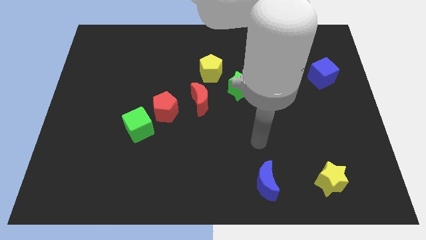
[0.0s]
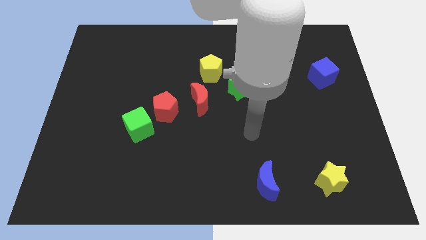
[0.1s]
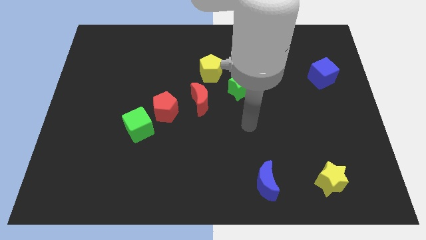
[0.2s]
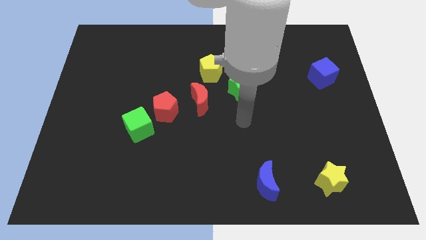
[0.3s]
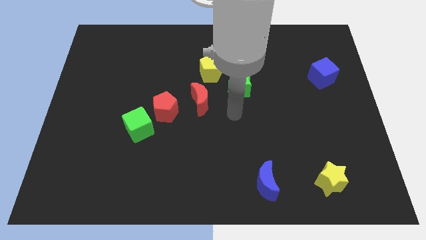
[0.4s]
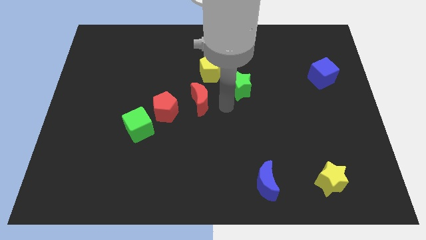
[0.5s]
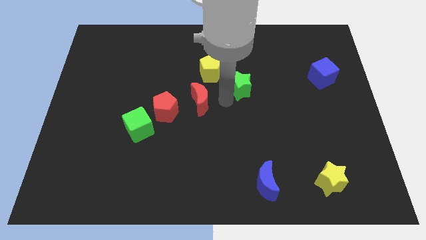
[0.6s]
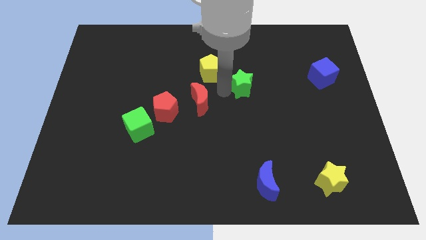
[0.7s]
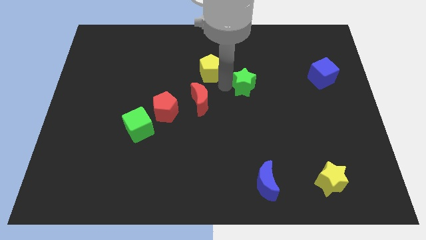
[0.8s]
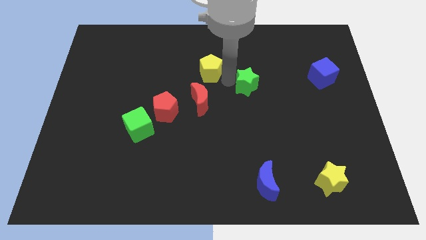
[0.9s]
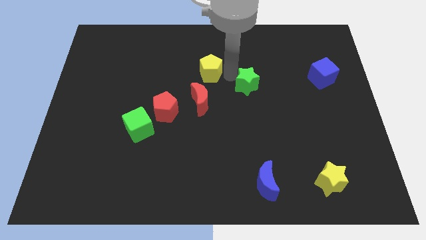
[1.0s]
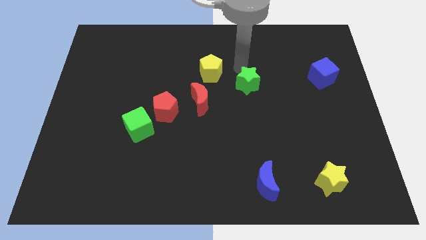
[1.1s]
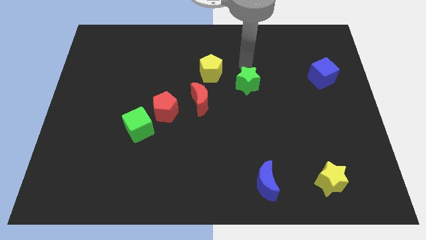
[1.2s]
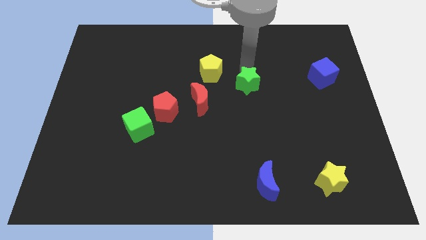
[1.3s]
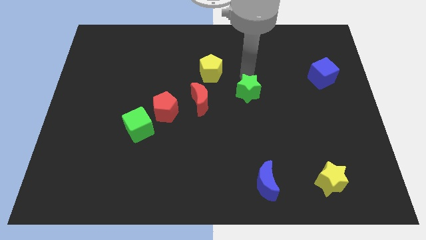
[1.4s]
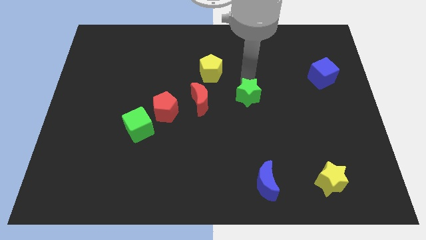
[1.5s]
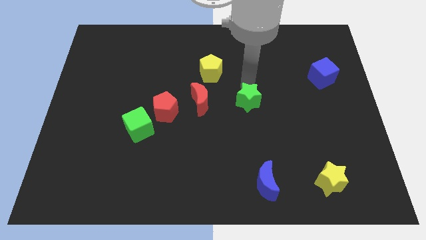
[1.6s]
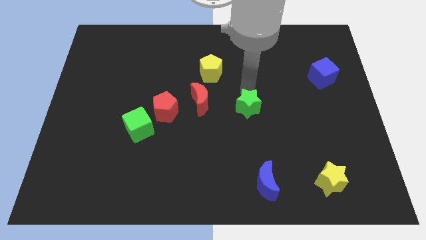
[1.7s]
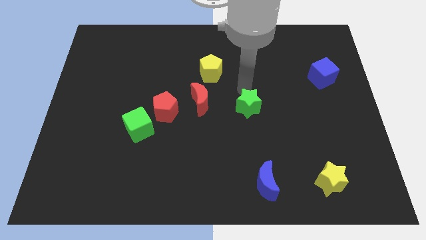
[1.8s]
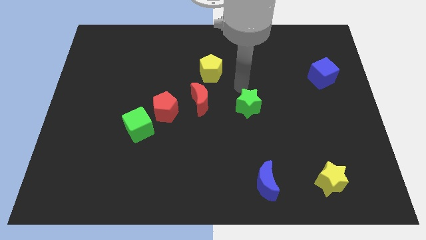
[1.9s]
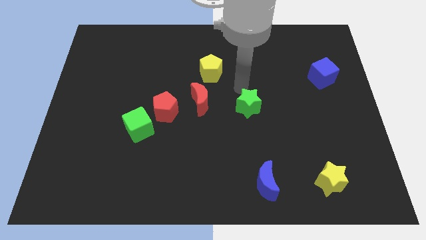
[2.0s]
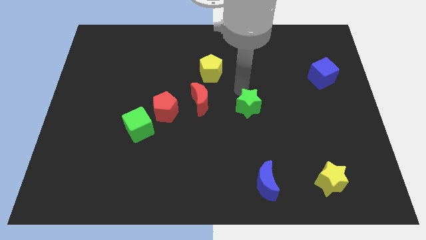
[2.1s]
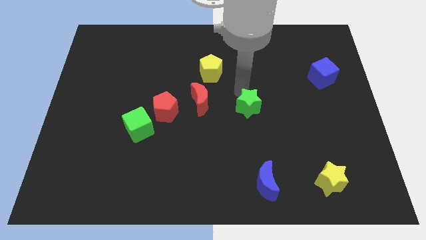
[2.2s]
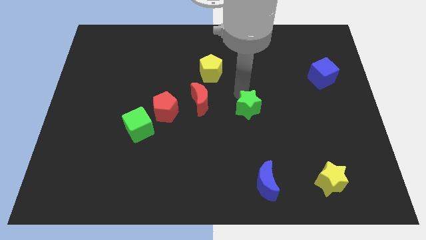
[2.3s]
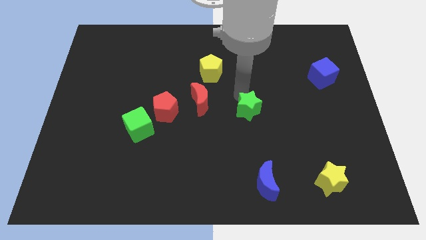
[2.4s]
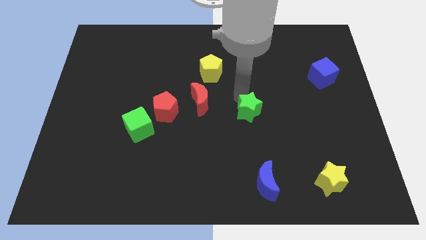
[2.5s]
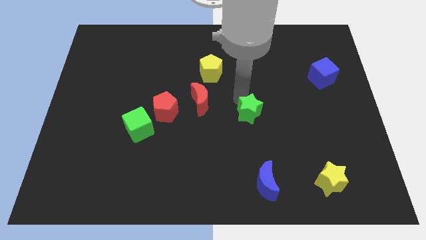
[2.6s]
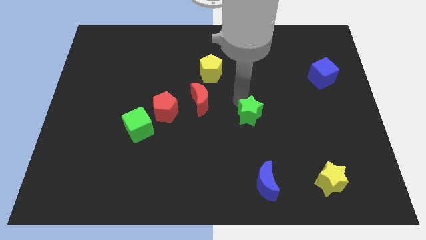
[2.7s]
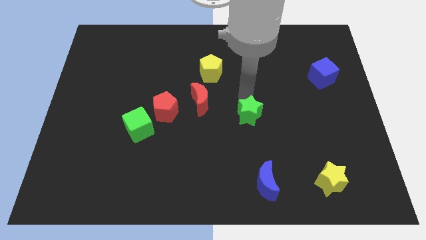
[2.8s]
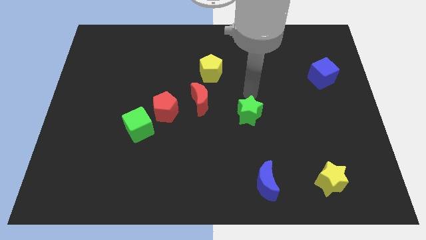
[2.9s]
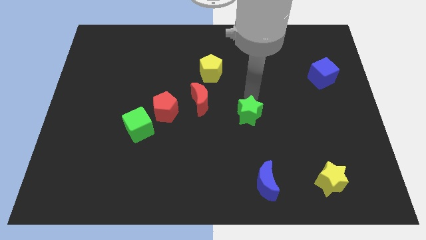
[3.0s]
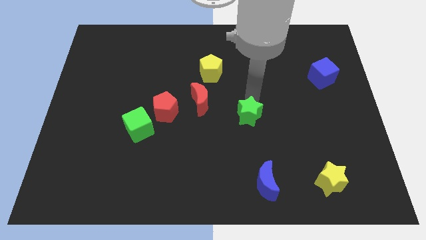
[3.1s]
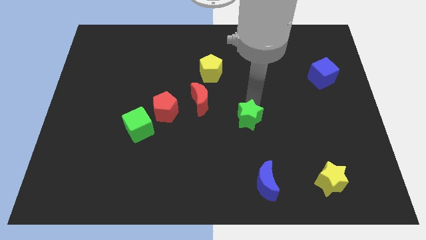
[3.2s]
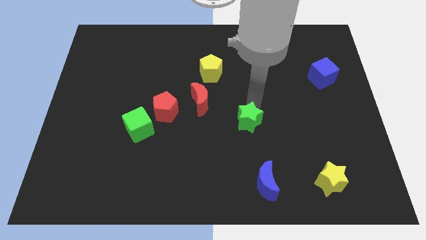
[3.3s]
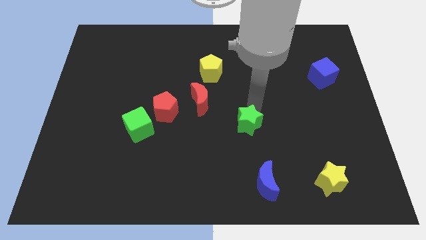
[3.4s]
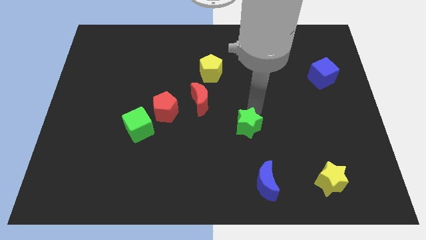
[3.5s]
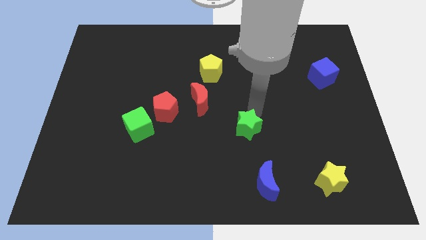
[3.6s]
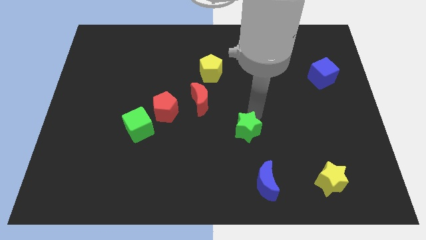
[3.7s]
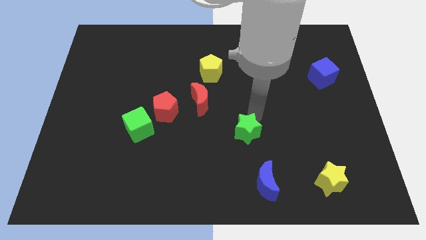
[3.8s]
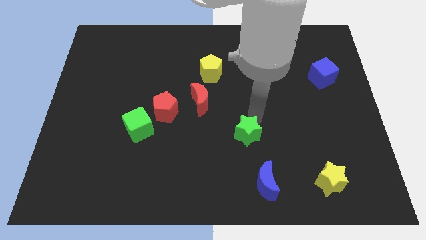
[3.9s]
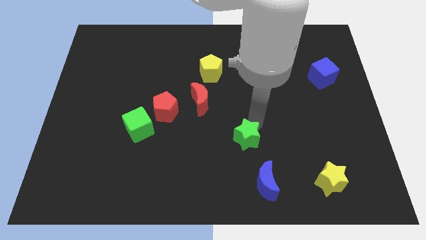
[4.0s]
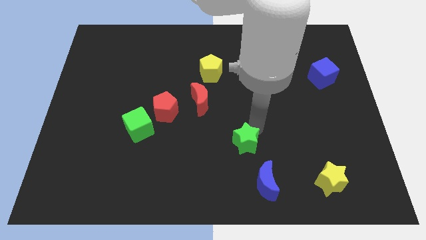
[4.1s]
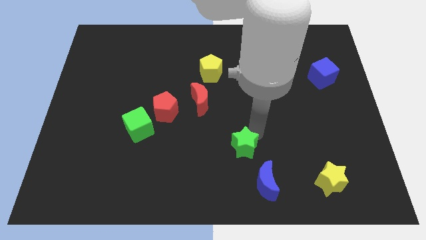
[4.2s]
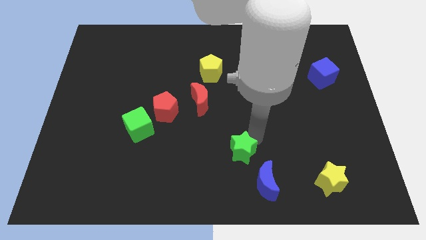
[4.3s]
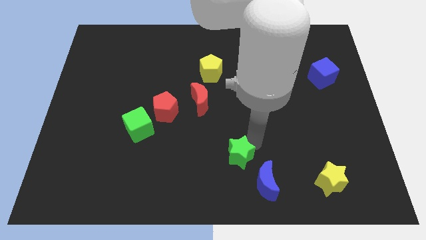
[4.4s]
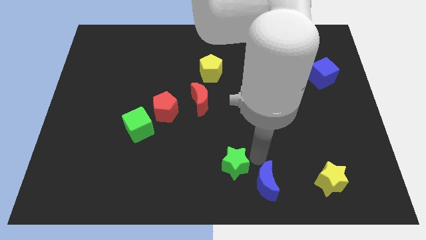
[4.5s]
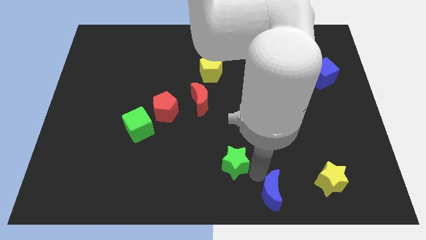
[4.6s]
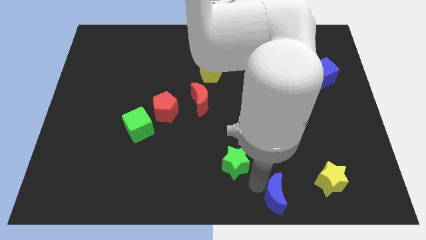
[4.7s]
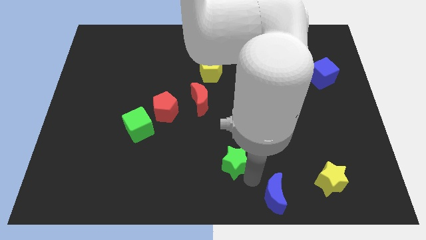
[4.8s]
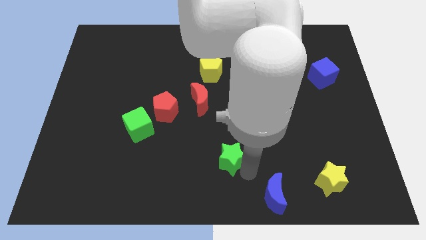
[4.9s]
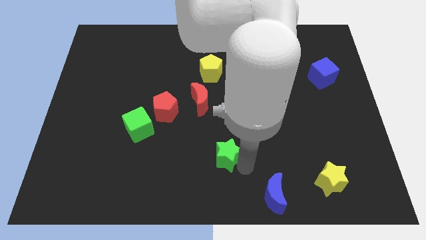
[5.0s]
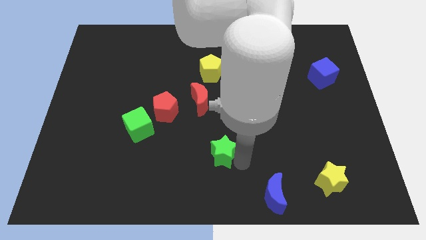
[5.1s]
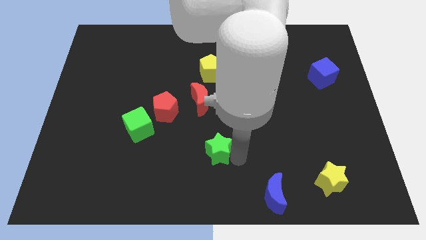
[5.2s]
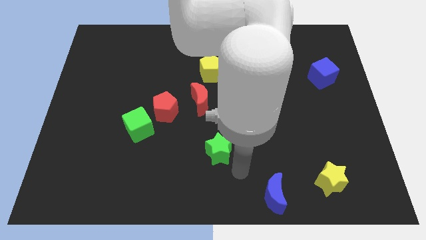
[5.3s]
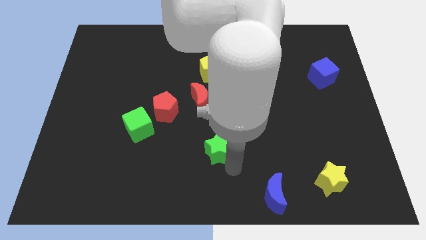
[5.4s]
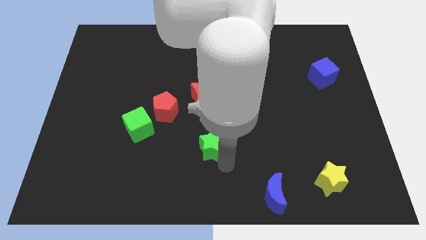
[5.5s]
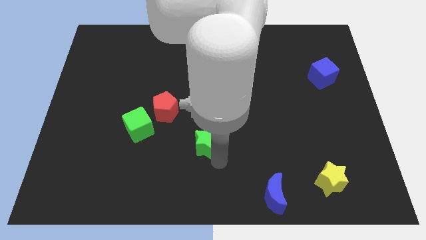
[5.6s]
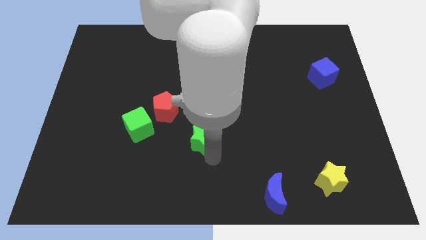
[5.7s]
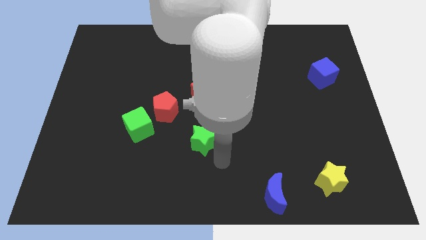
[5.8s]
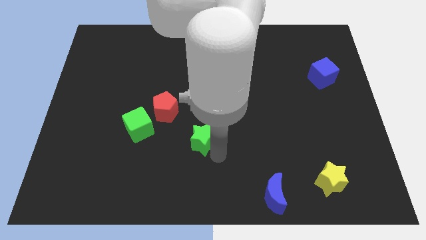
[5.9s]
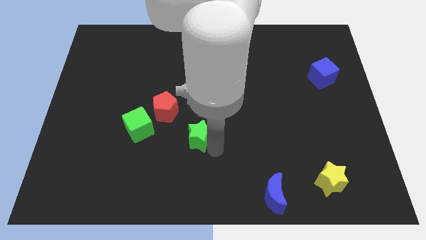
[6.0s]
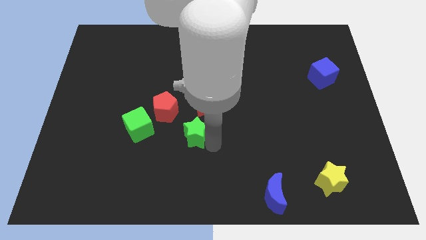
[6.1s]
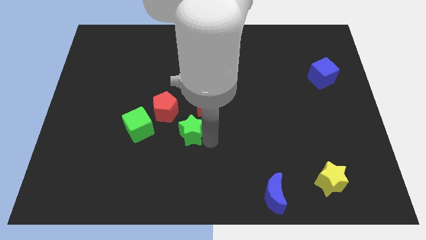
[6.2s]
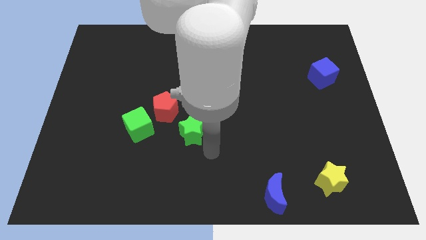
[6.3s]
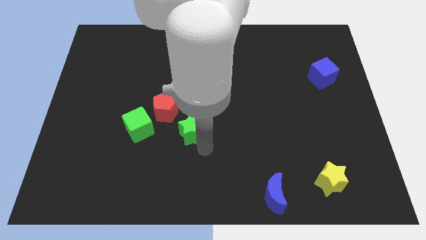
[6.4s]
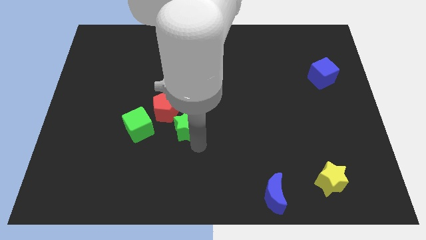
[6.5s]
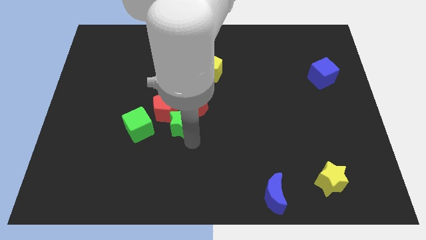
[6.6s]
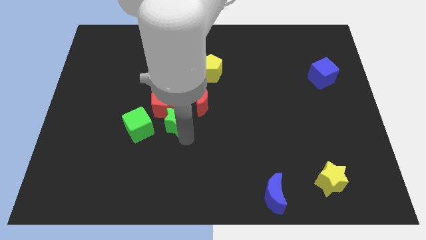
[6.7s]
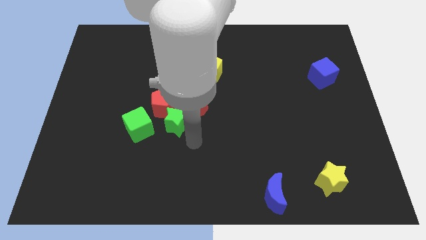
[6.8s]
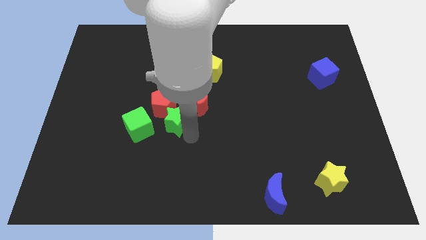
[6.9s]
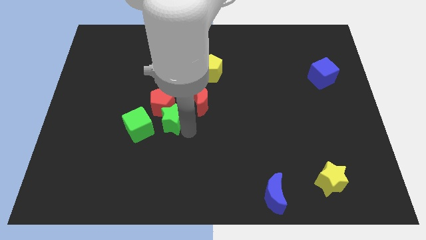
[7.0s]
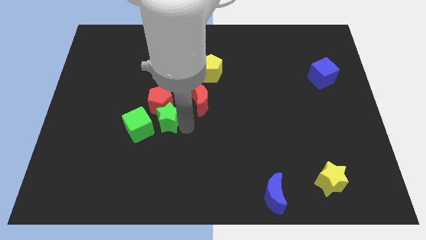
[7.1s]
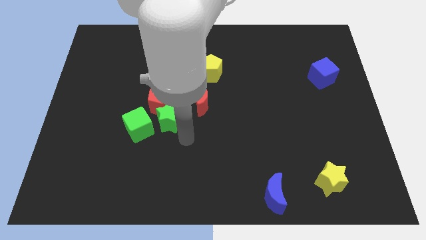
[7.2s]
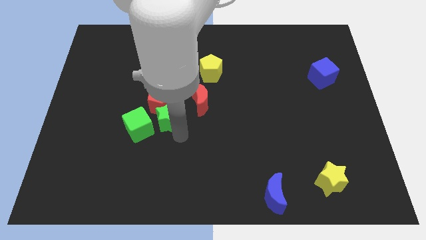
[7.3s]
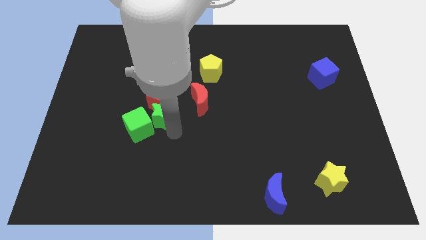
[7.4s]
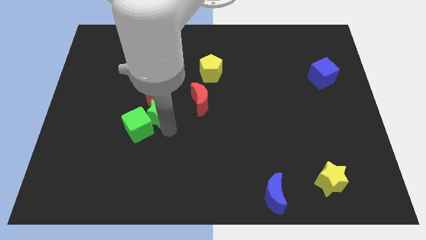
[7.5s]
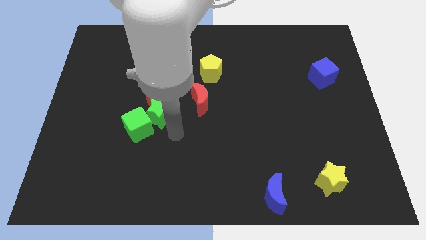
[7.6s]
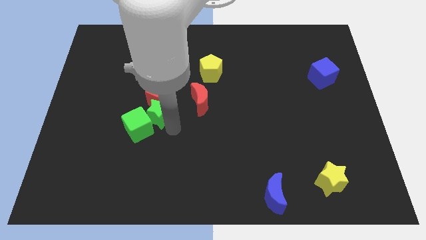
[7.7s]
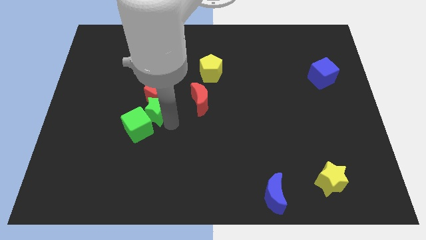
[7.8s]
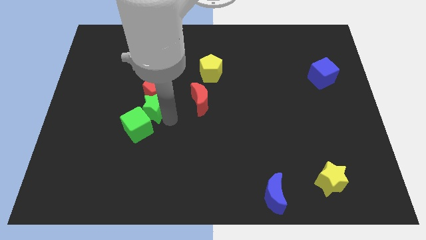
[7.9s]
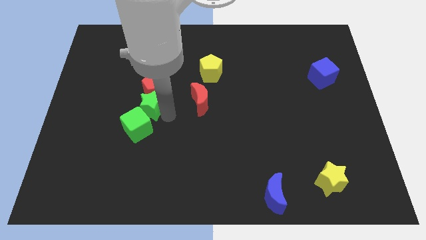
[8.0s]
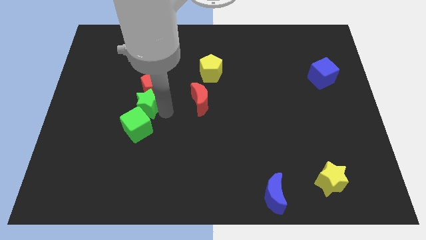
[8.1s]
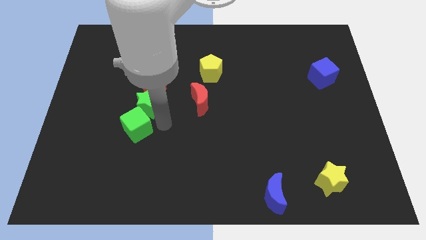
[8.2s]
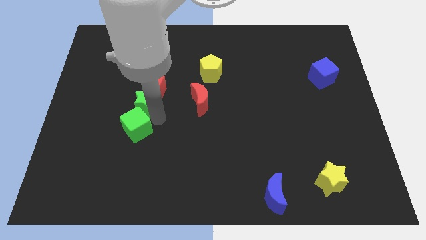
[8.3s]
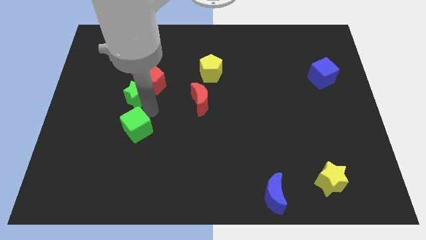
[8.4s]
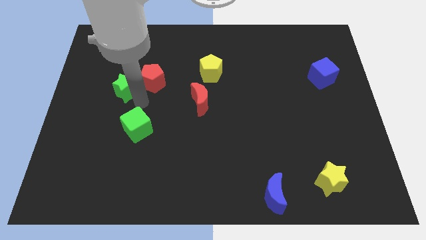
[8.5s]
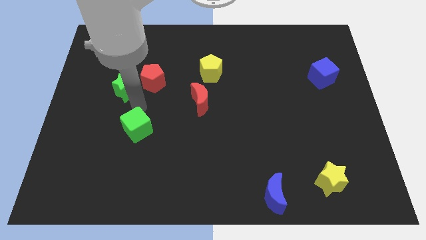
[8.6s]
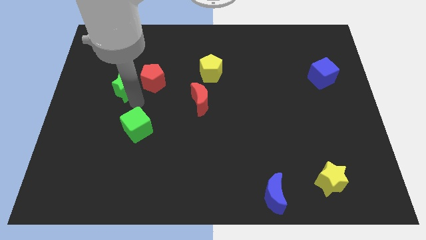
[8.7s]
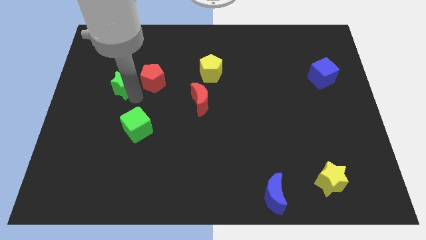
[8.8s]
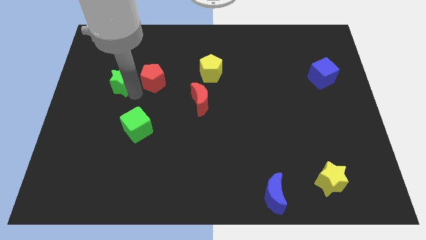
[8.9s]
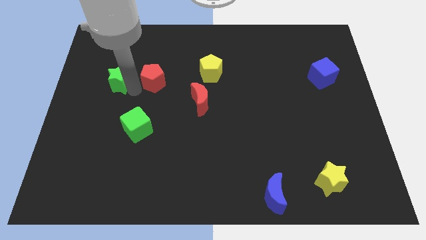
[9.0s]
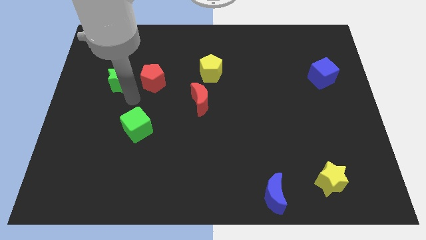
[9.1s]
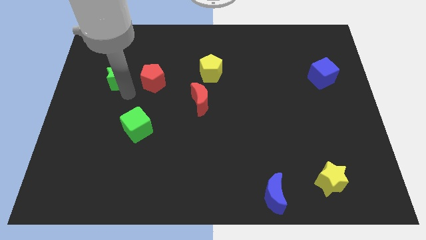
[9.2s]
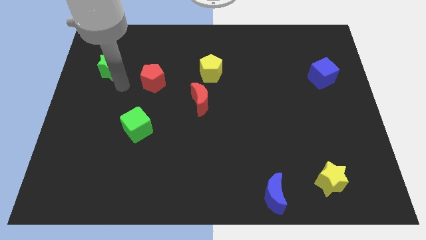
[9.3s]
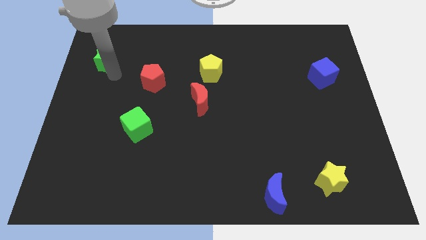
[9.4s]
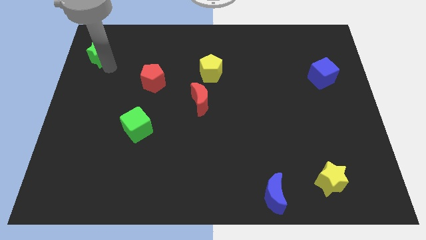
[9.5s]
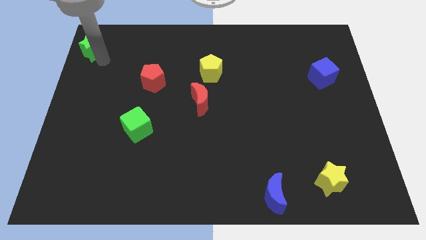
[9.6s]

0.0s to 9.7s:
push the green star to the upper left corner
